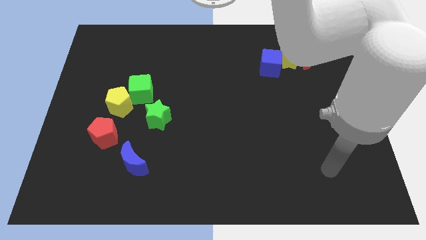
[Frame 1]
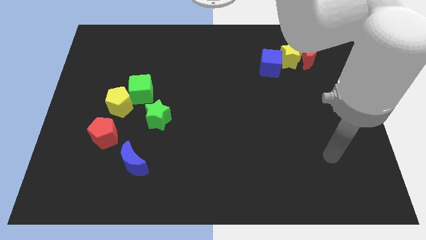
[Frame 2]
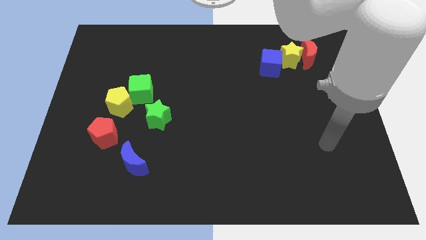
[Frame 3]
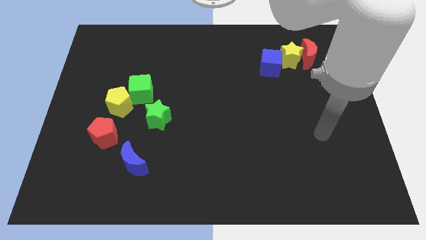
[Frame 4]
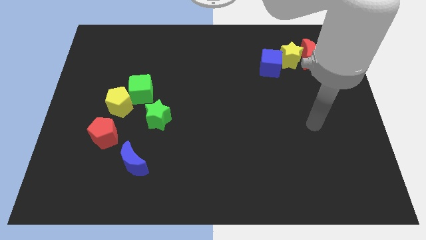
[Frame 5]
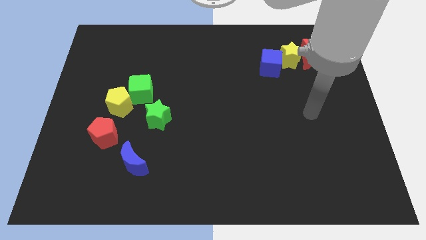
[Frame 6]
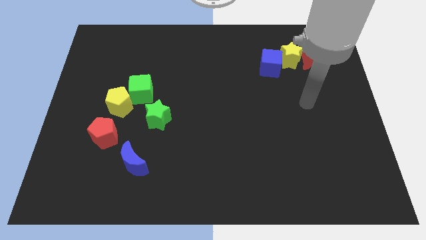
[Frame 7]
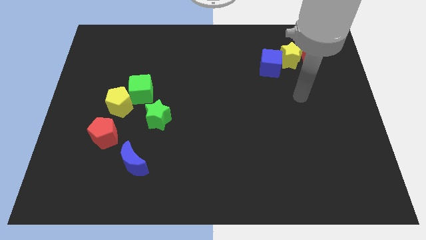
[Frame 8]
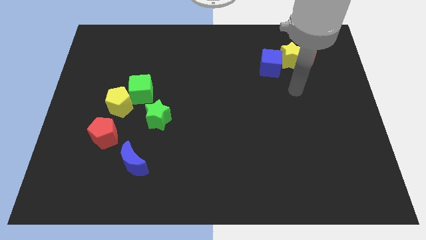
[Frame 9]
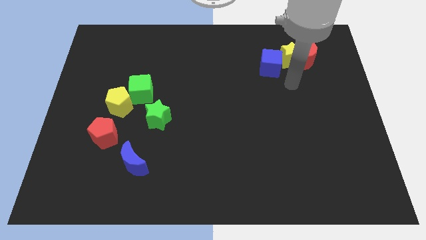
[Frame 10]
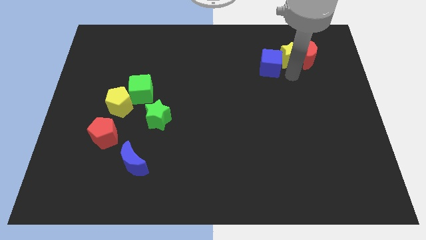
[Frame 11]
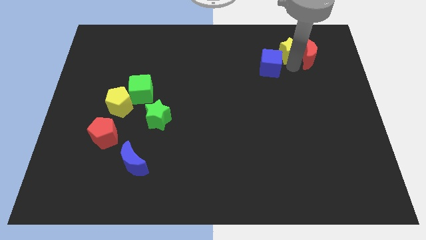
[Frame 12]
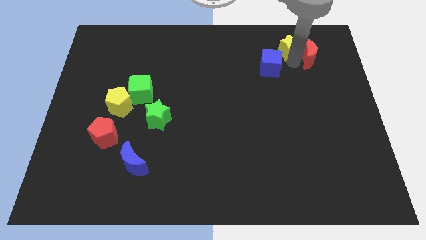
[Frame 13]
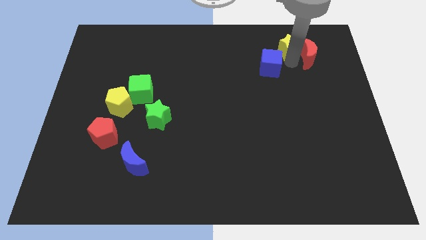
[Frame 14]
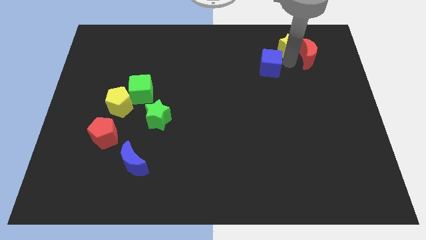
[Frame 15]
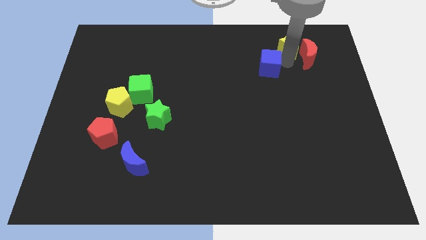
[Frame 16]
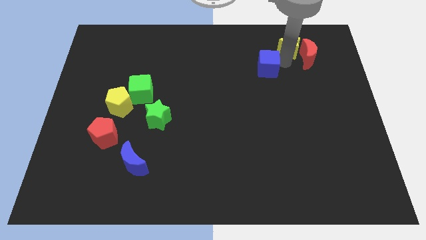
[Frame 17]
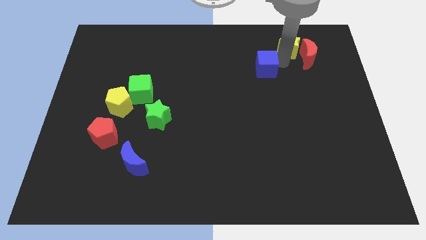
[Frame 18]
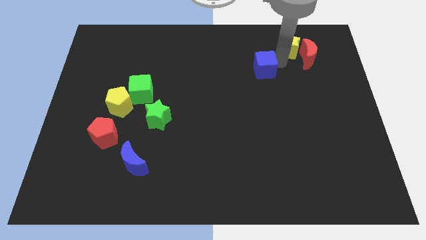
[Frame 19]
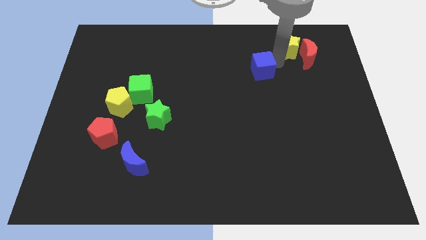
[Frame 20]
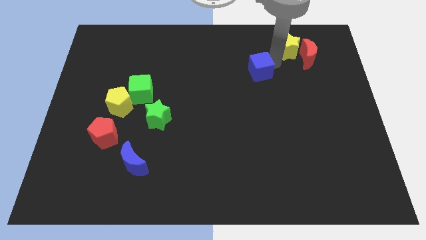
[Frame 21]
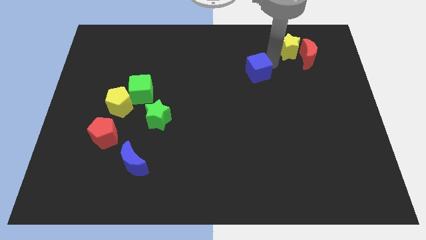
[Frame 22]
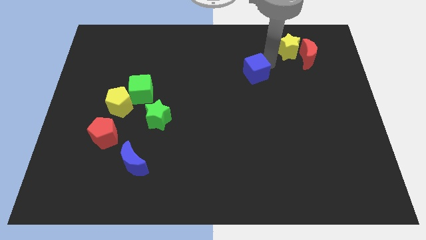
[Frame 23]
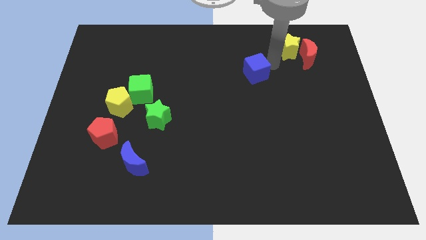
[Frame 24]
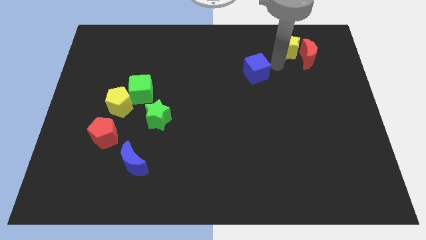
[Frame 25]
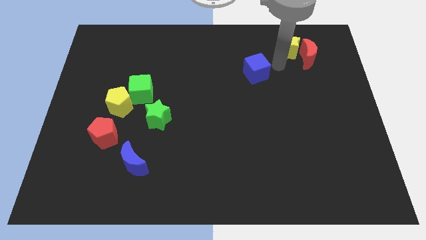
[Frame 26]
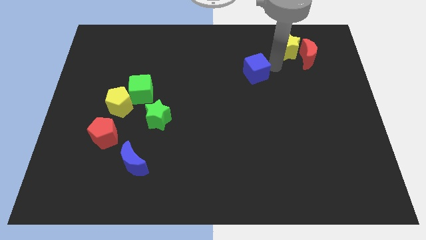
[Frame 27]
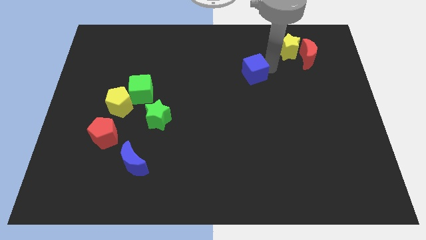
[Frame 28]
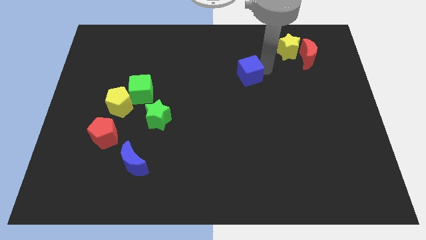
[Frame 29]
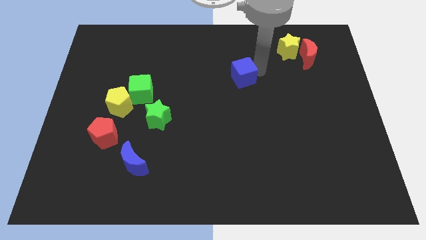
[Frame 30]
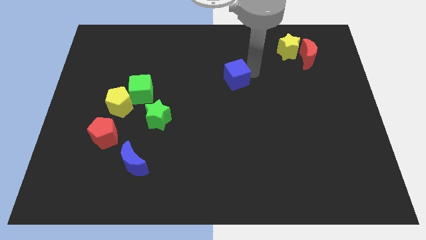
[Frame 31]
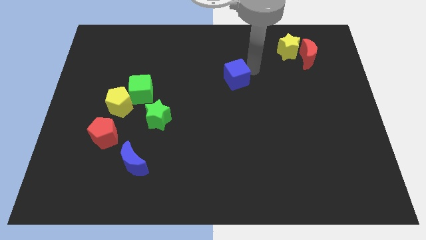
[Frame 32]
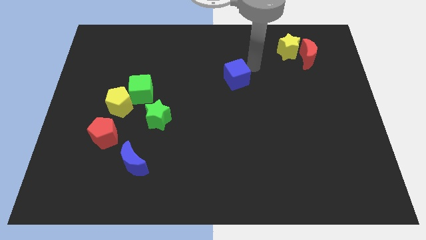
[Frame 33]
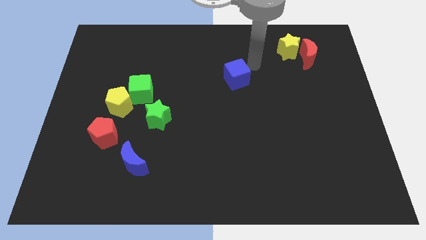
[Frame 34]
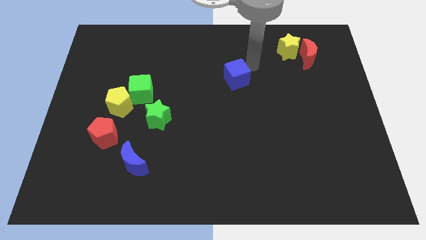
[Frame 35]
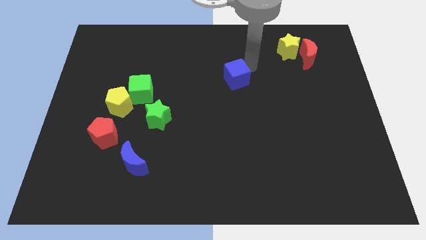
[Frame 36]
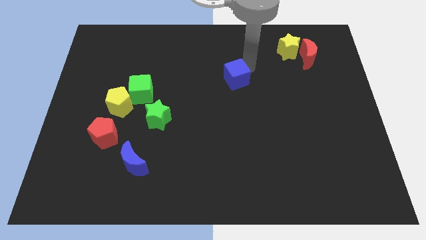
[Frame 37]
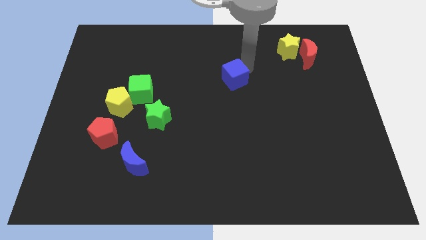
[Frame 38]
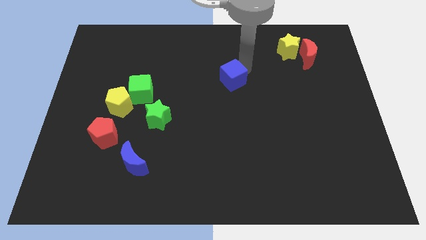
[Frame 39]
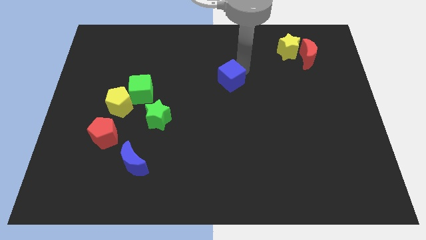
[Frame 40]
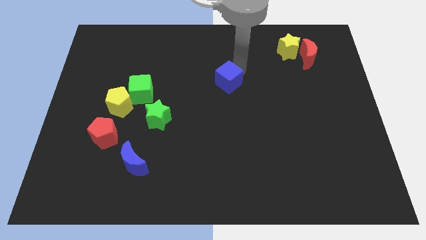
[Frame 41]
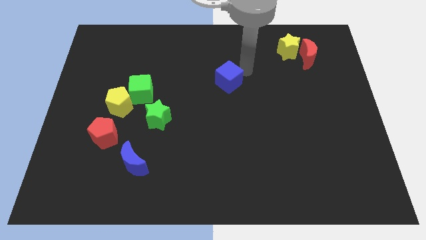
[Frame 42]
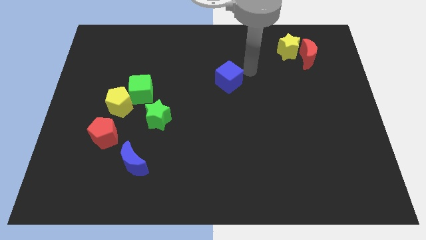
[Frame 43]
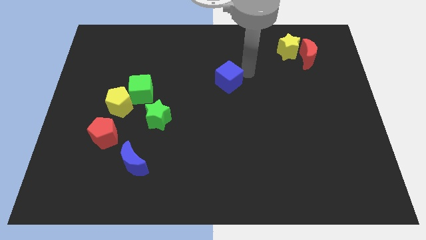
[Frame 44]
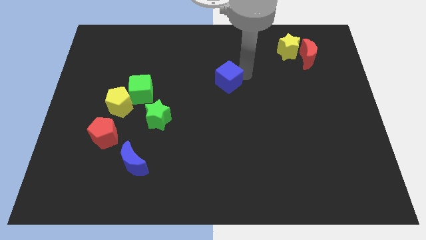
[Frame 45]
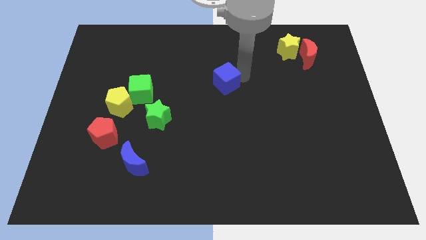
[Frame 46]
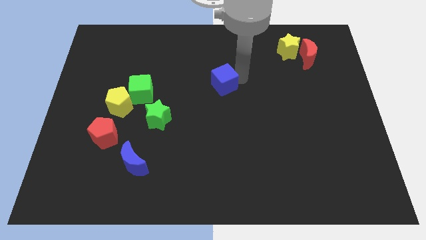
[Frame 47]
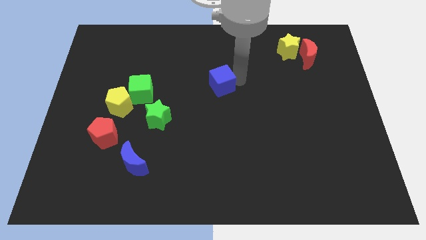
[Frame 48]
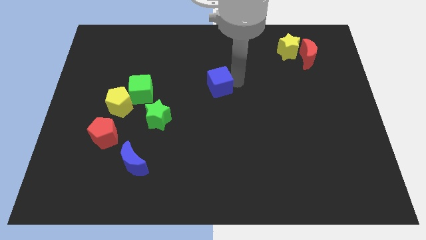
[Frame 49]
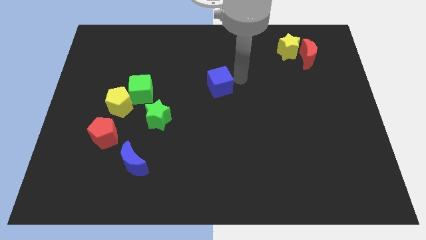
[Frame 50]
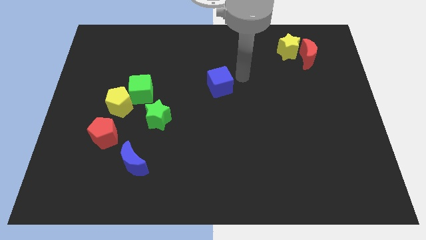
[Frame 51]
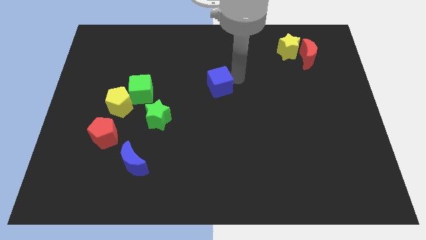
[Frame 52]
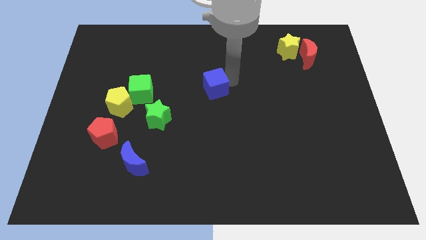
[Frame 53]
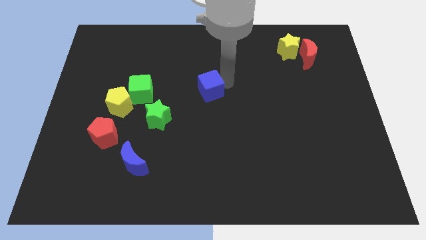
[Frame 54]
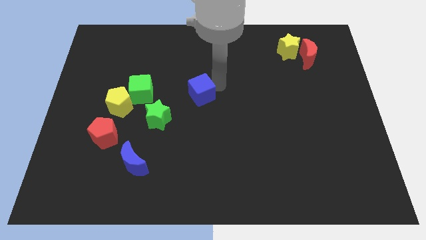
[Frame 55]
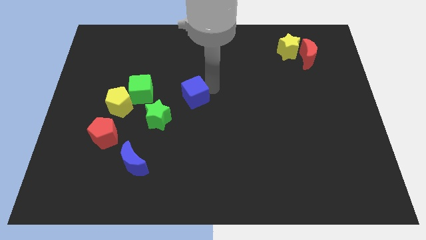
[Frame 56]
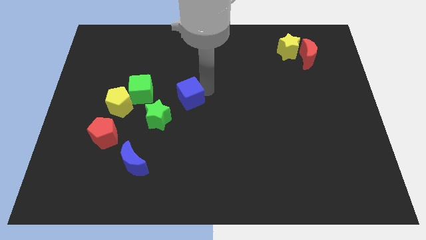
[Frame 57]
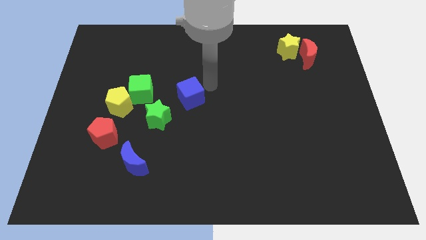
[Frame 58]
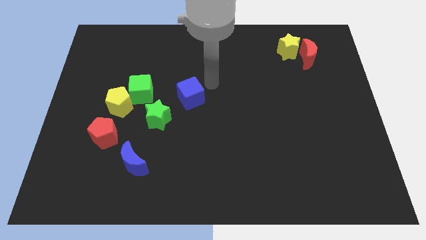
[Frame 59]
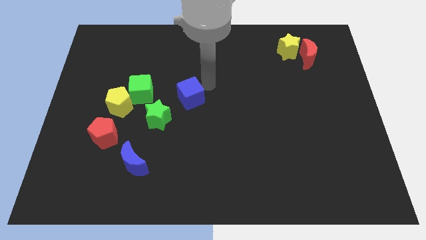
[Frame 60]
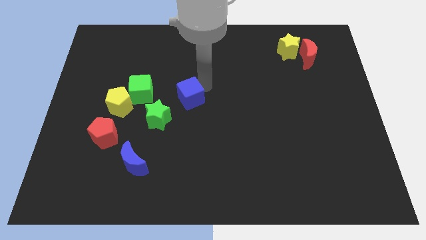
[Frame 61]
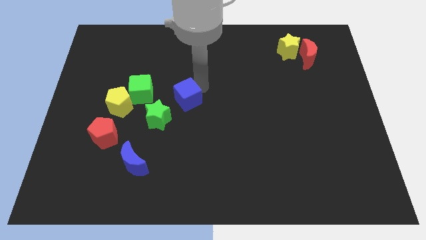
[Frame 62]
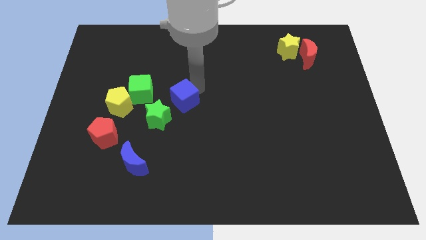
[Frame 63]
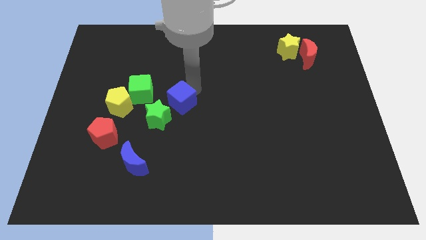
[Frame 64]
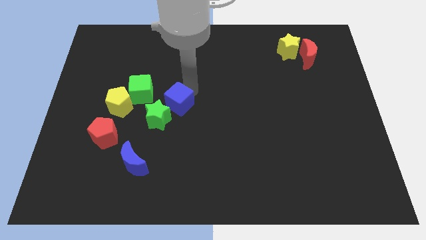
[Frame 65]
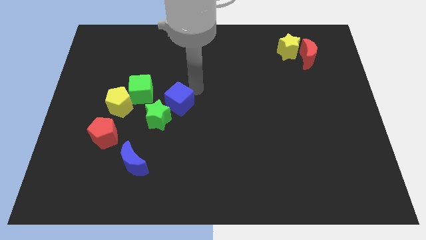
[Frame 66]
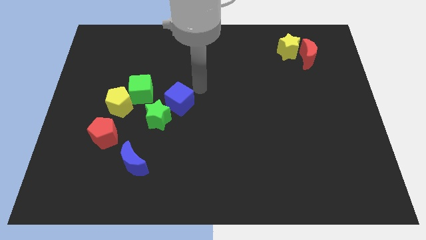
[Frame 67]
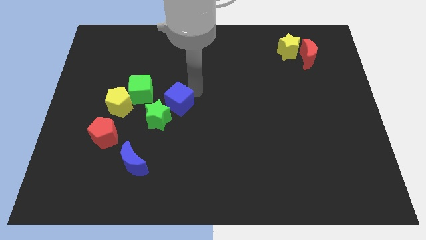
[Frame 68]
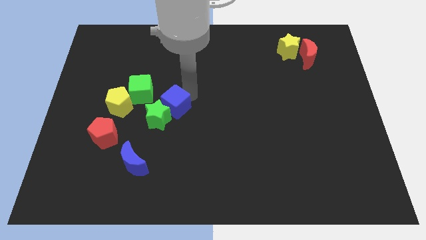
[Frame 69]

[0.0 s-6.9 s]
push the blue cube close to the green star

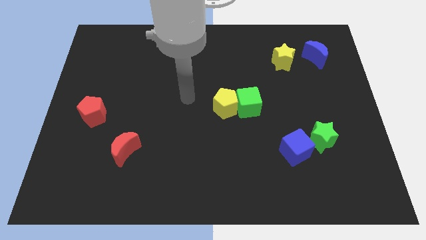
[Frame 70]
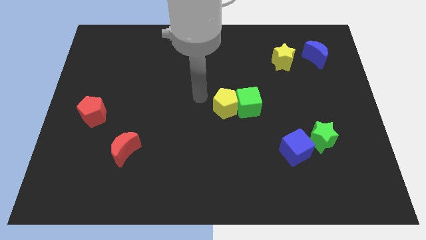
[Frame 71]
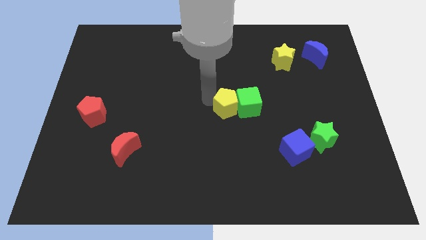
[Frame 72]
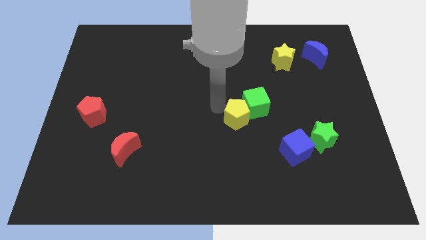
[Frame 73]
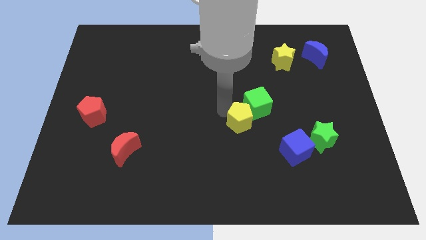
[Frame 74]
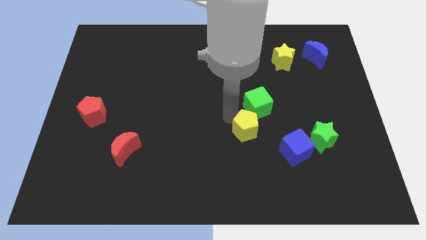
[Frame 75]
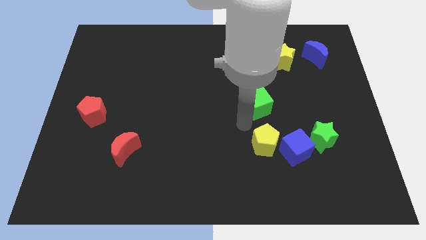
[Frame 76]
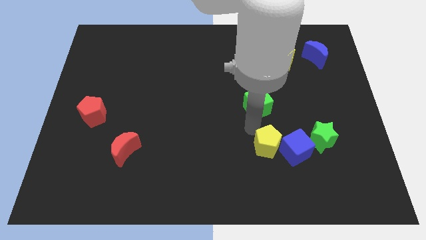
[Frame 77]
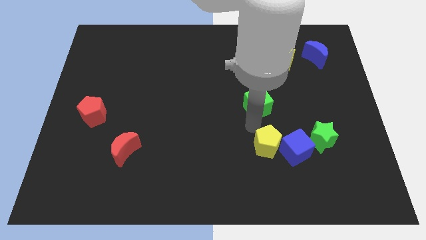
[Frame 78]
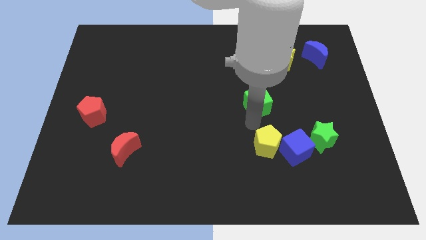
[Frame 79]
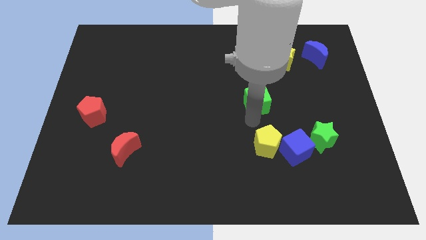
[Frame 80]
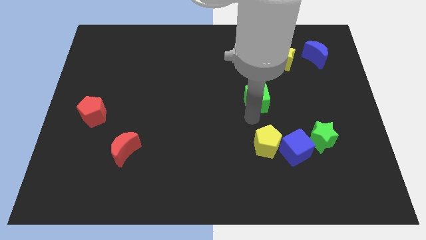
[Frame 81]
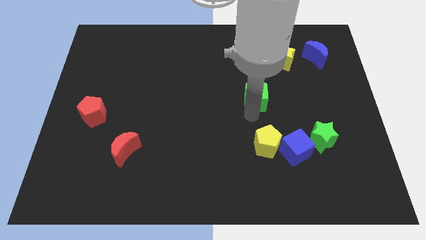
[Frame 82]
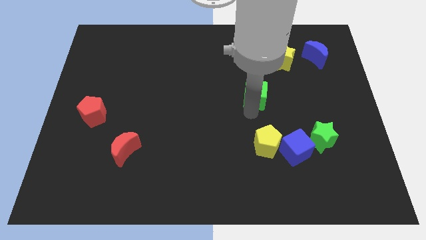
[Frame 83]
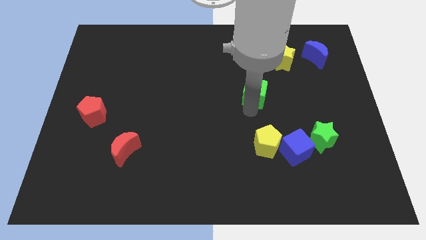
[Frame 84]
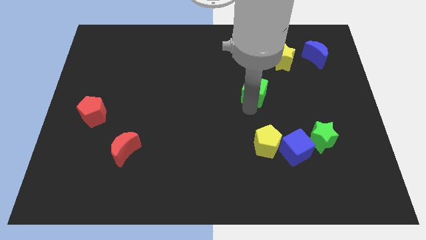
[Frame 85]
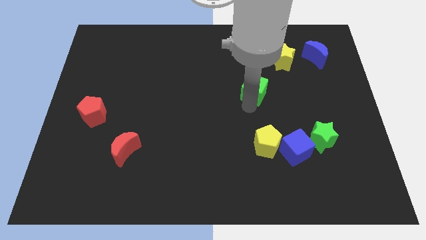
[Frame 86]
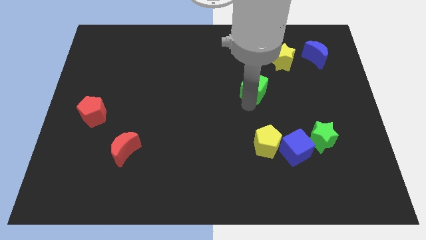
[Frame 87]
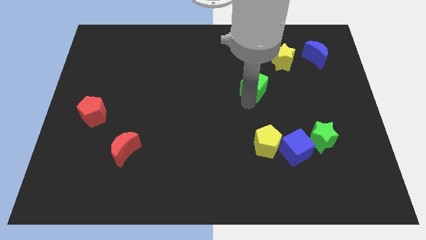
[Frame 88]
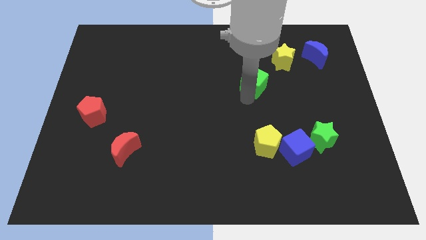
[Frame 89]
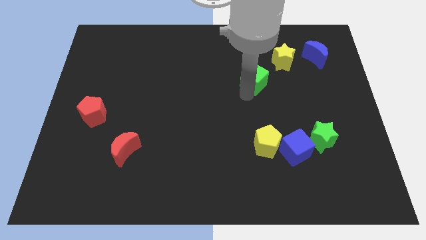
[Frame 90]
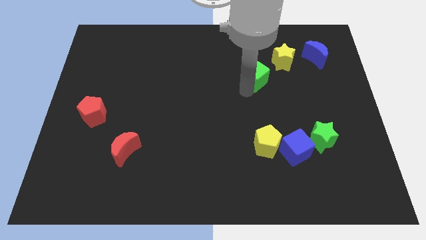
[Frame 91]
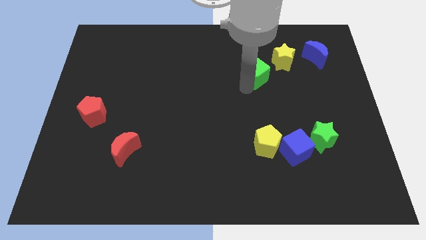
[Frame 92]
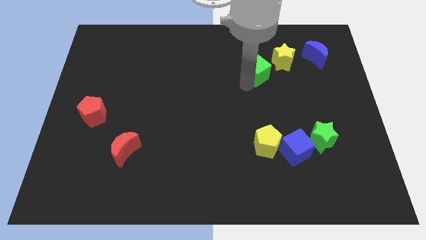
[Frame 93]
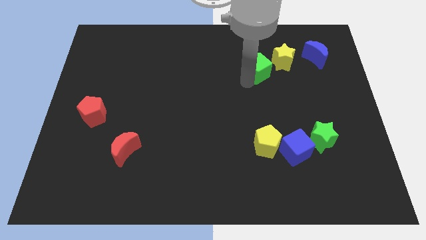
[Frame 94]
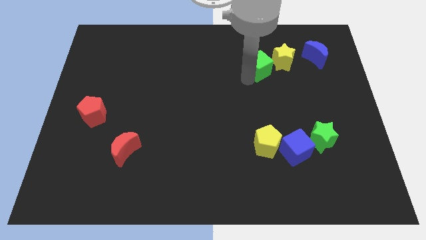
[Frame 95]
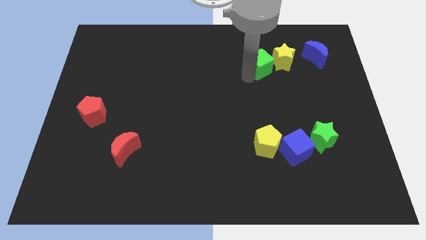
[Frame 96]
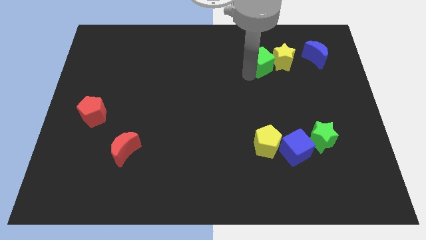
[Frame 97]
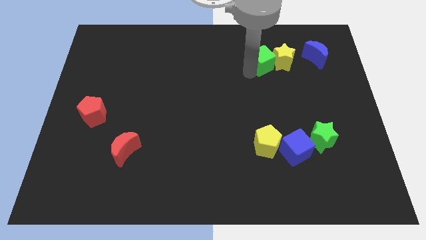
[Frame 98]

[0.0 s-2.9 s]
push the green cube to the yellow star
